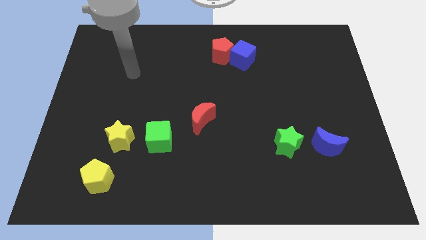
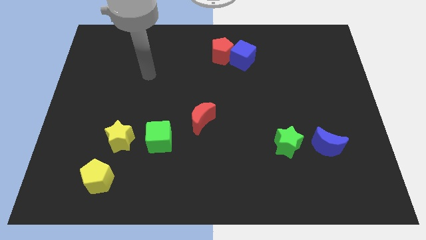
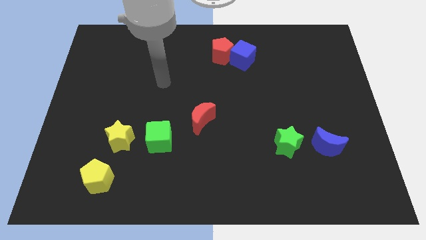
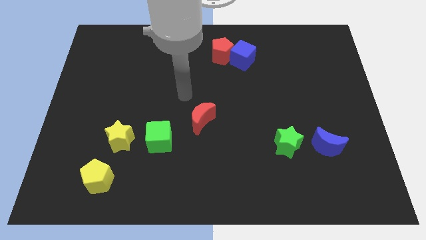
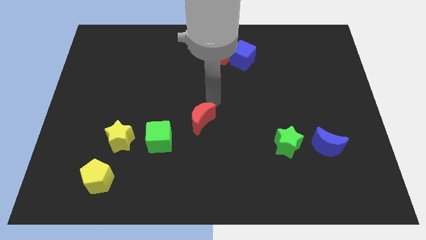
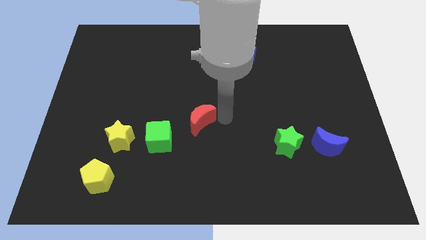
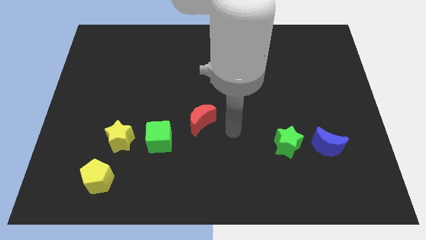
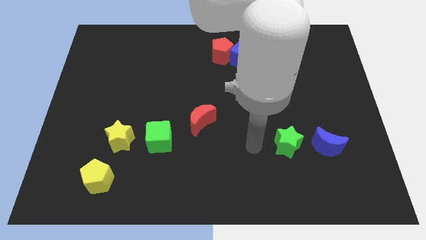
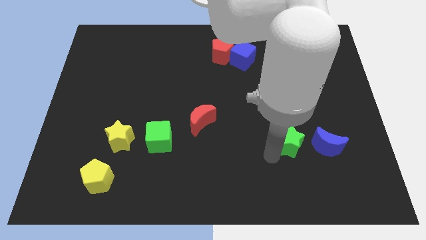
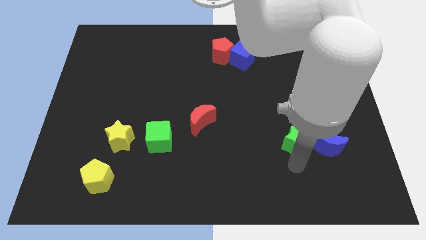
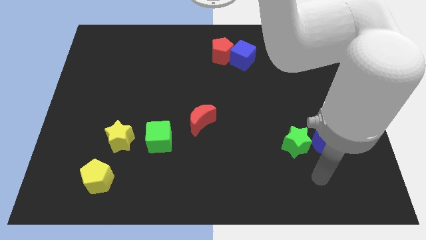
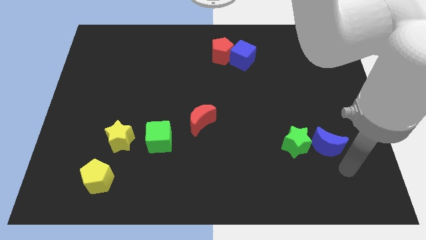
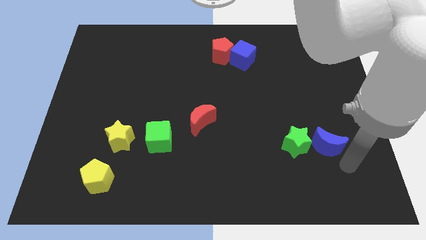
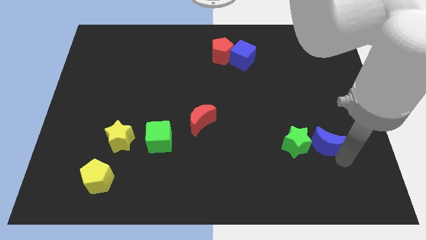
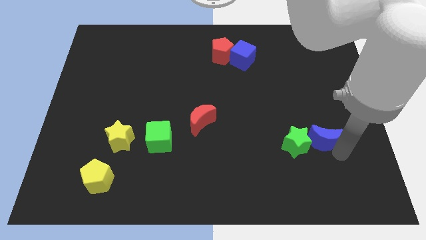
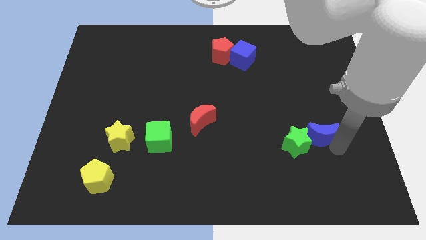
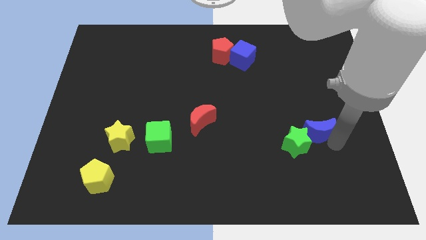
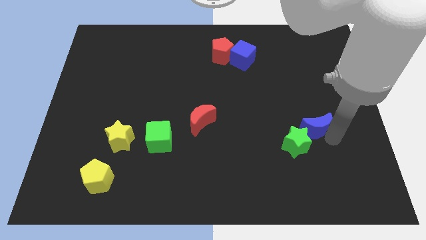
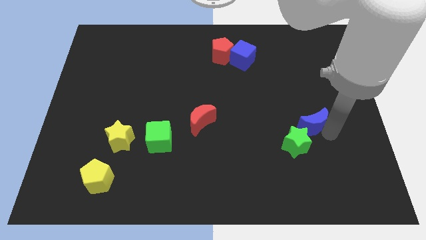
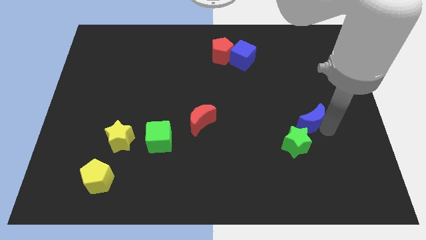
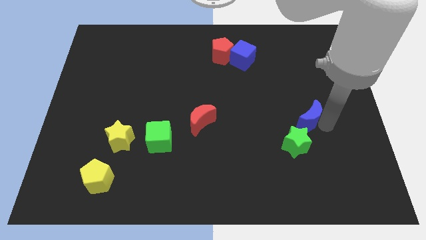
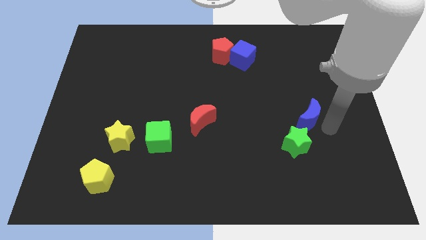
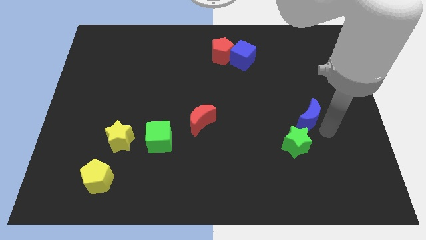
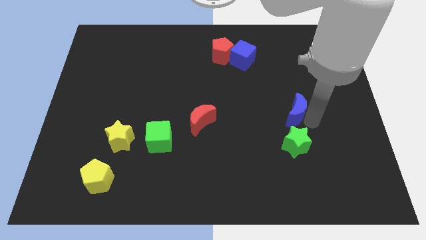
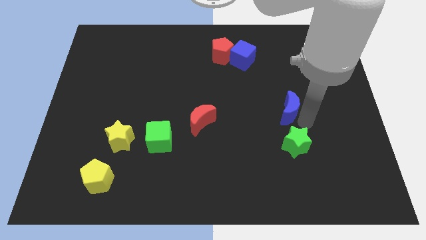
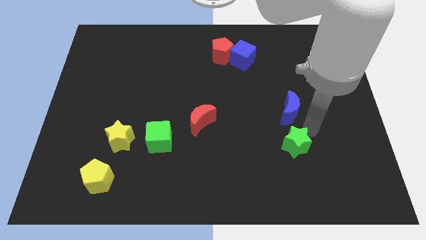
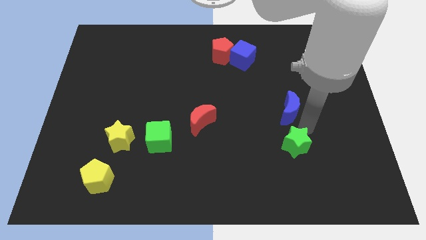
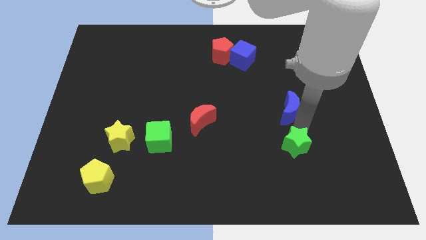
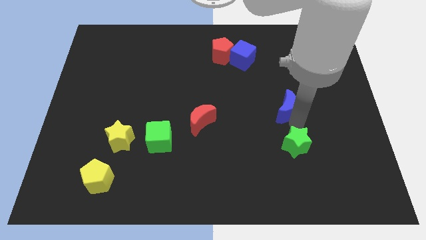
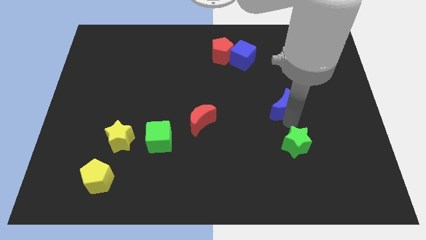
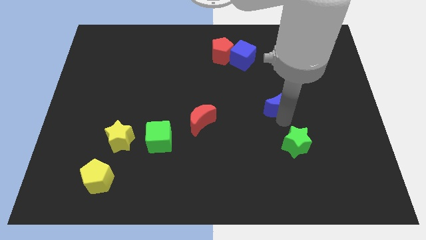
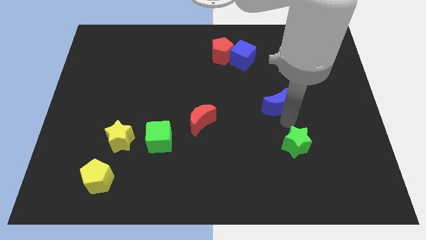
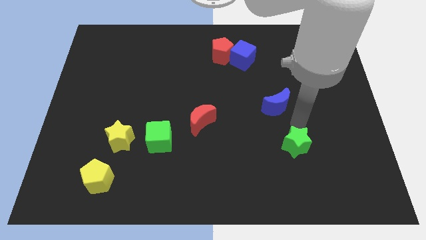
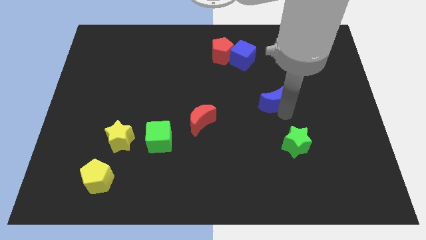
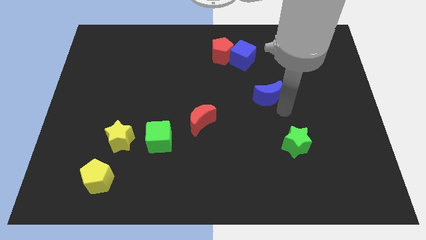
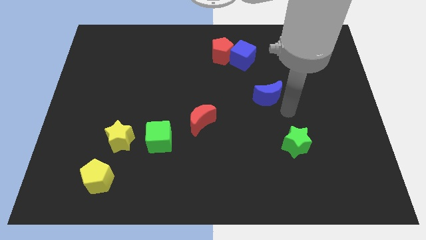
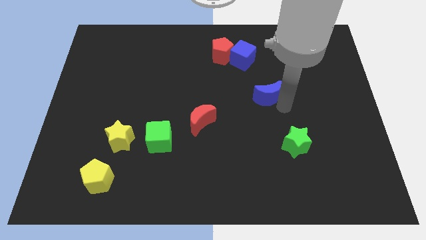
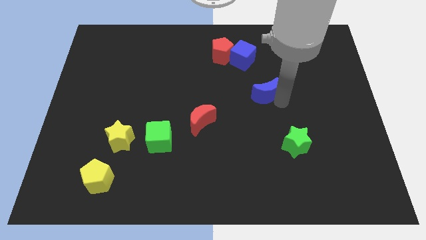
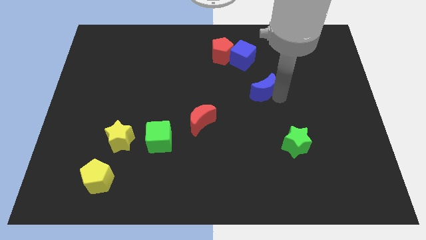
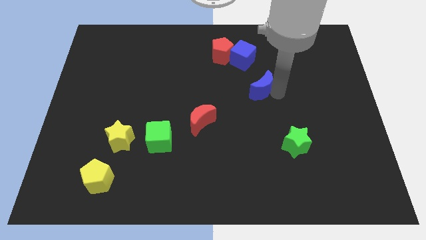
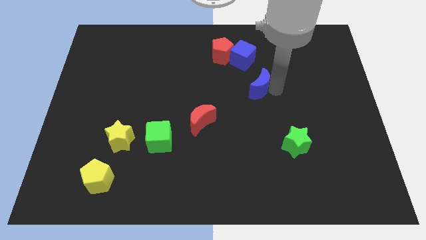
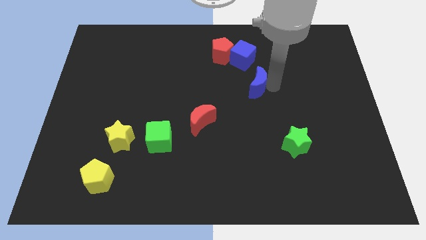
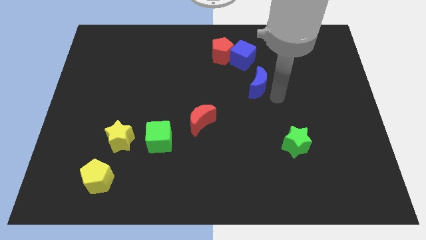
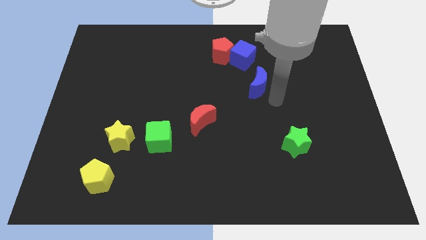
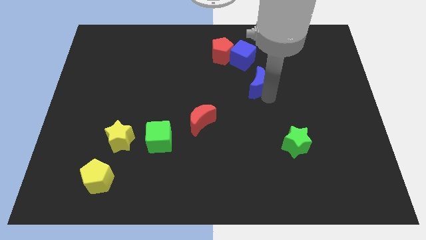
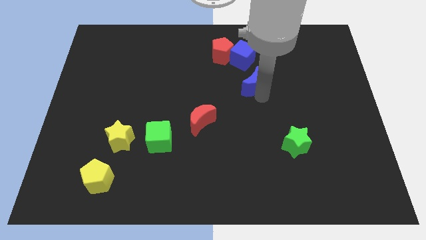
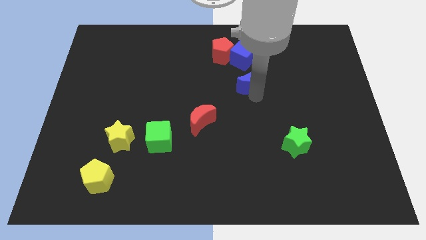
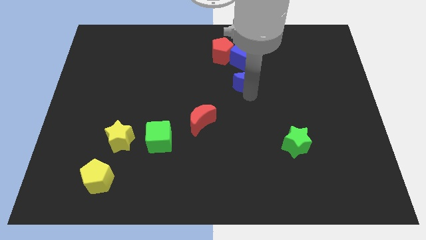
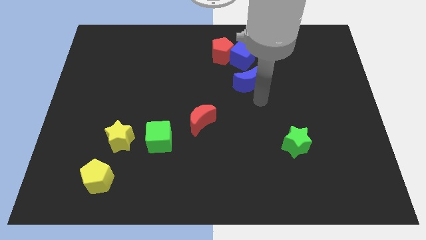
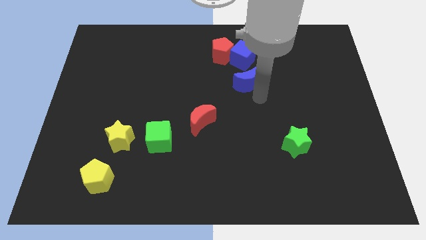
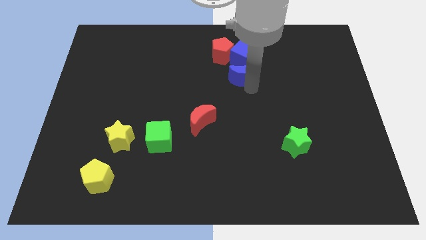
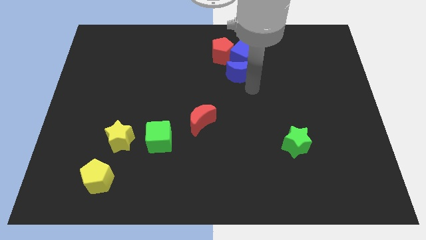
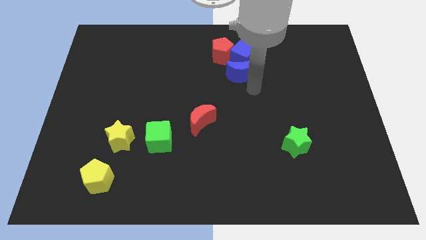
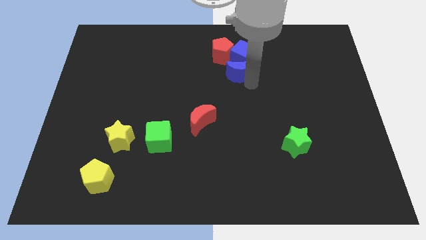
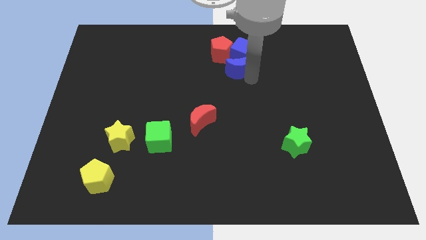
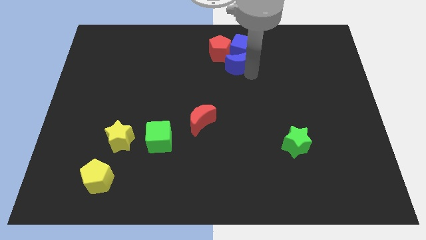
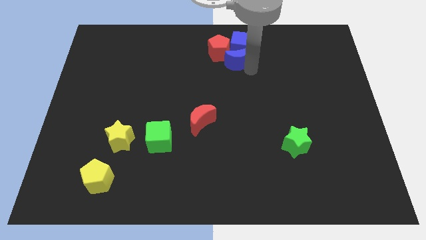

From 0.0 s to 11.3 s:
put the blue moon to the red pentagon

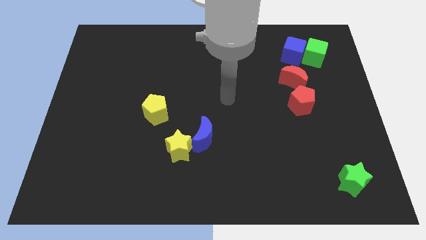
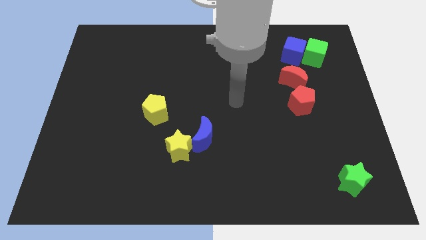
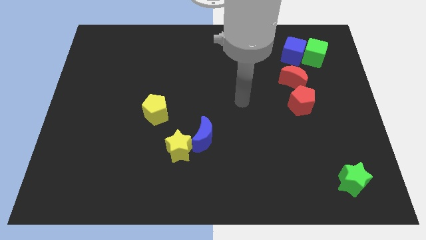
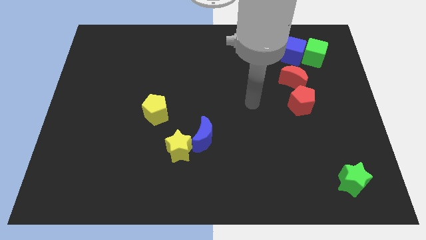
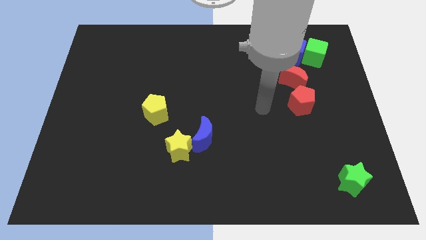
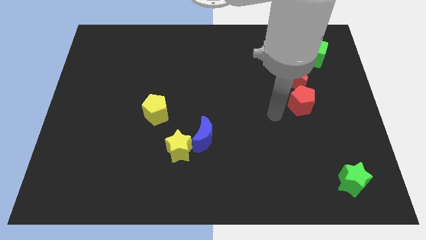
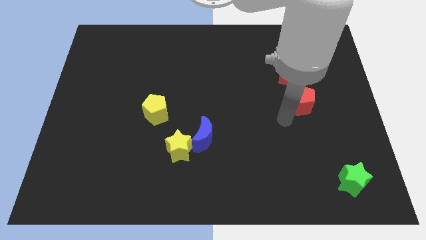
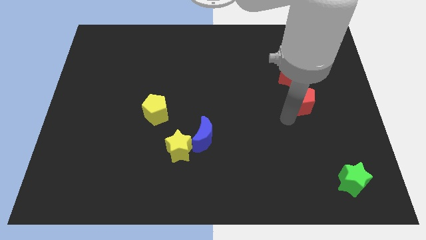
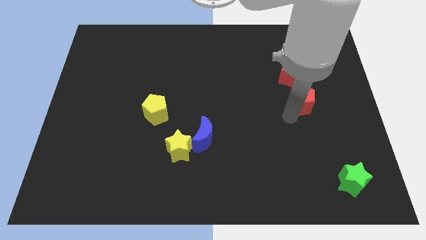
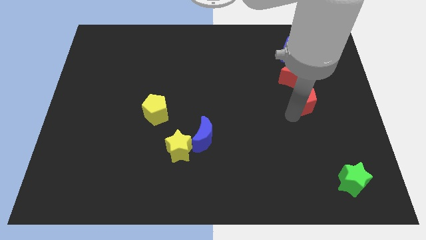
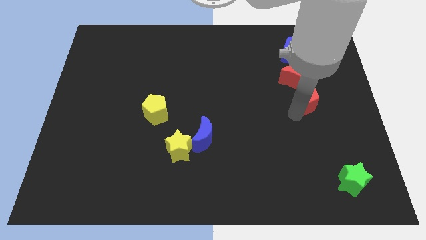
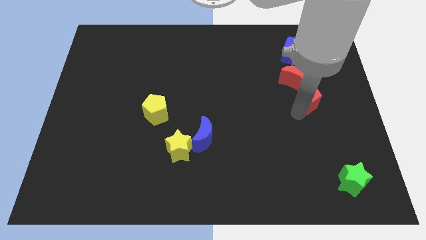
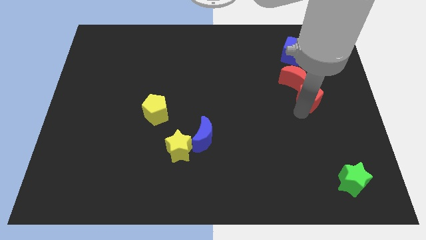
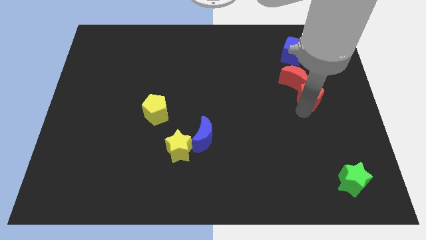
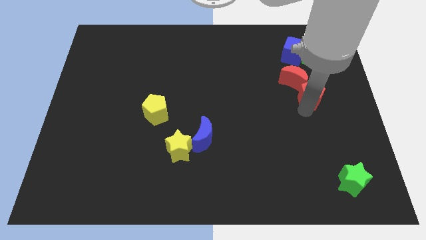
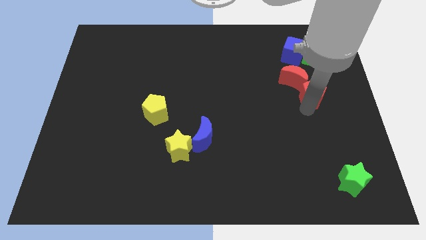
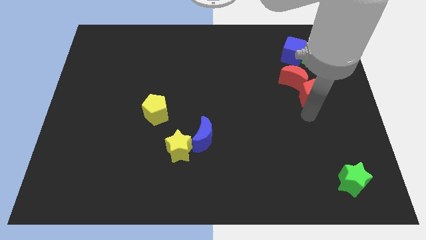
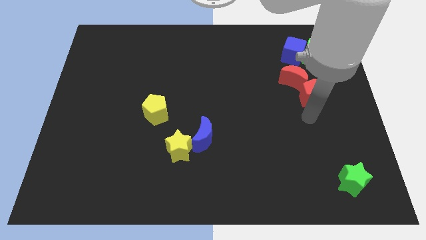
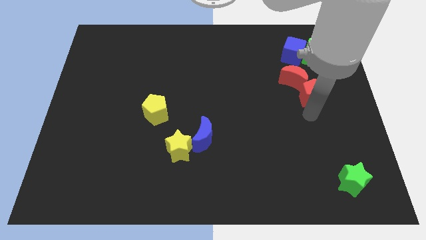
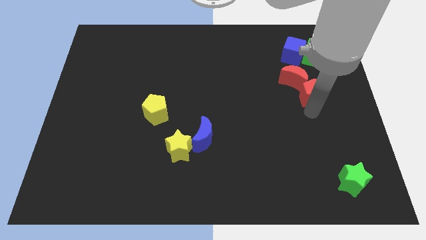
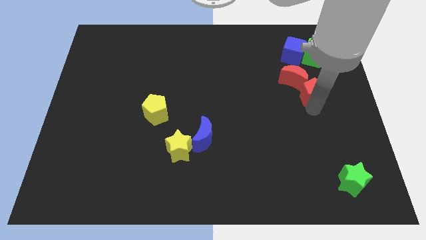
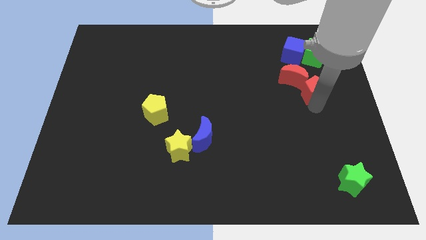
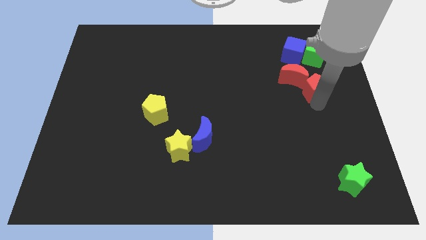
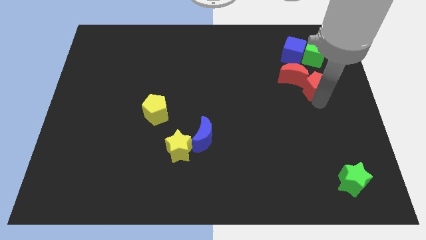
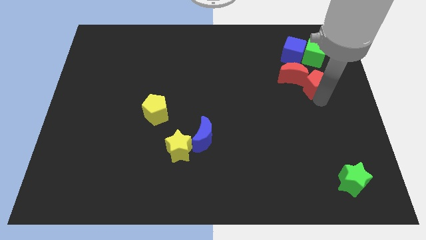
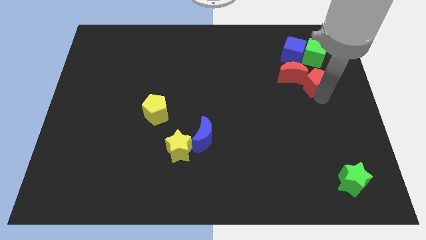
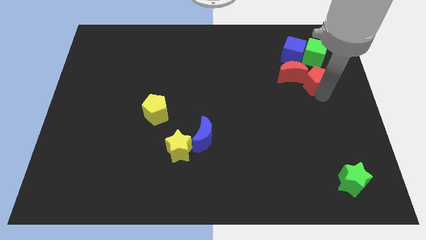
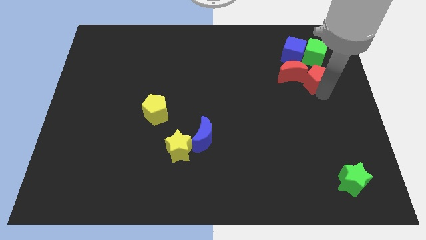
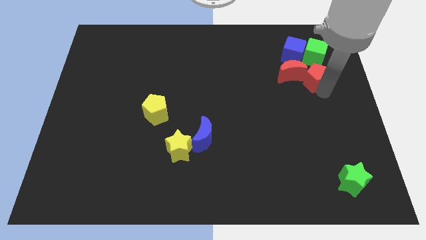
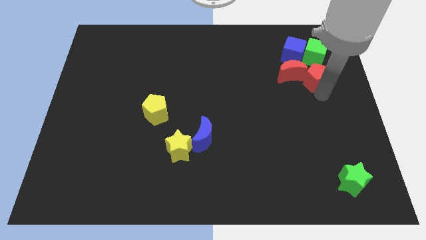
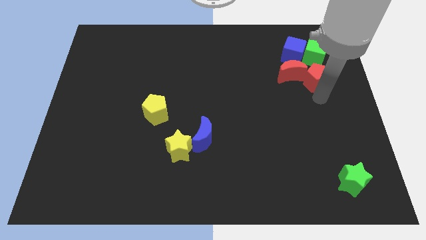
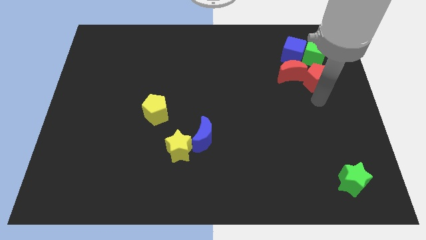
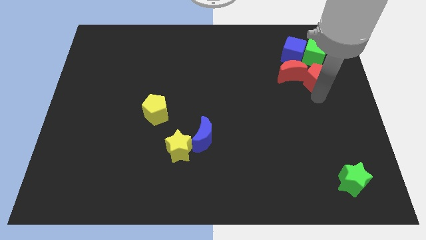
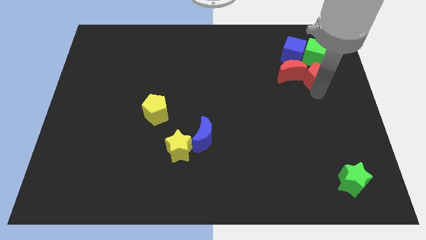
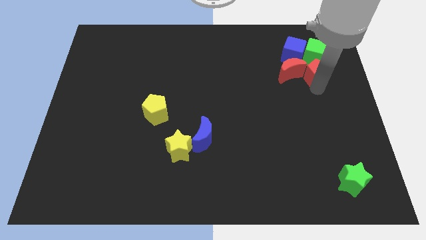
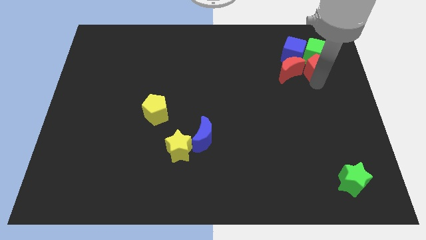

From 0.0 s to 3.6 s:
move the red pentagon close to the green cube
